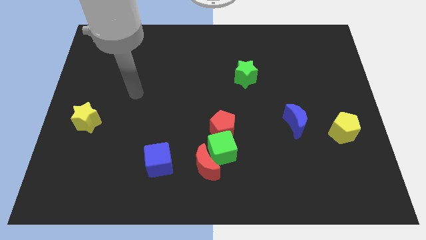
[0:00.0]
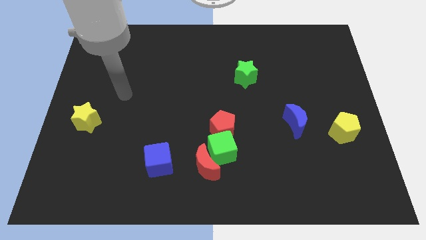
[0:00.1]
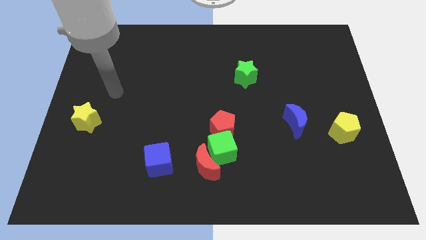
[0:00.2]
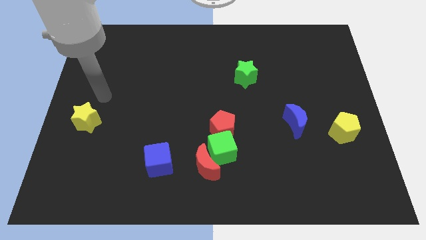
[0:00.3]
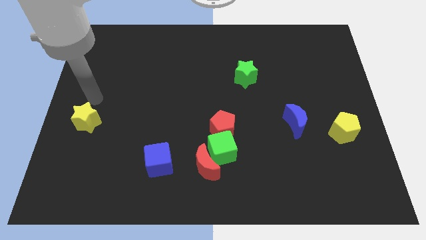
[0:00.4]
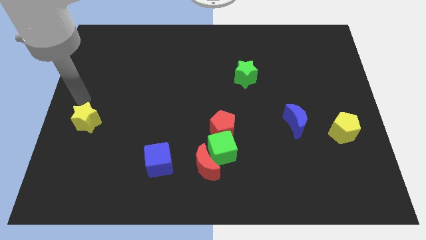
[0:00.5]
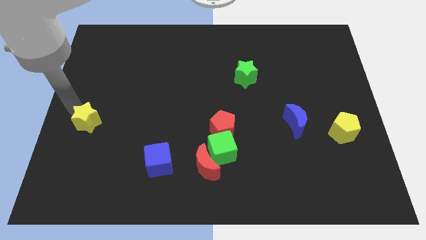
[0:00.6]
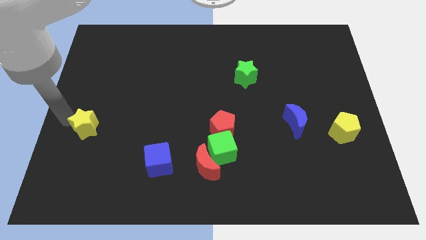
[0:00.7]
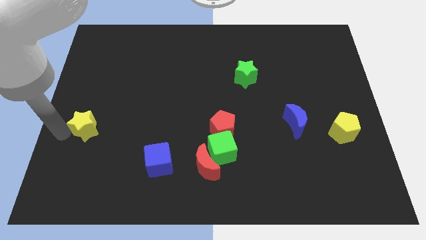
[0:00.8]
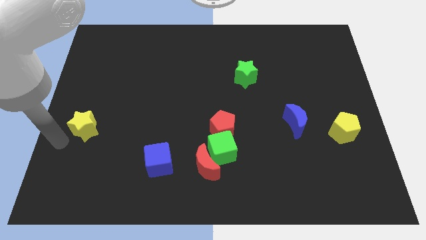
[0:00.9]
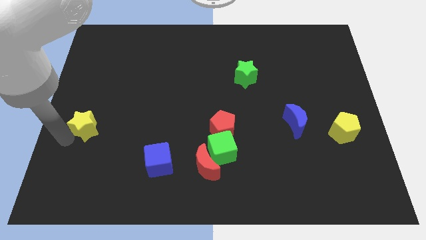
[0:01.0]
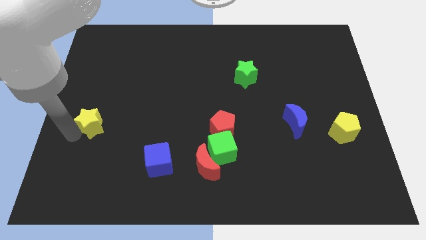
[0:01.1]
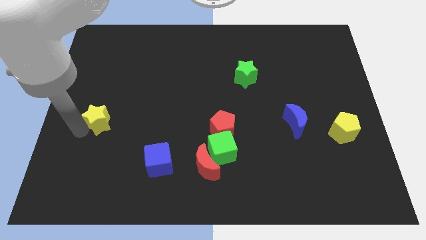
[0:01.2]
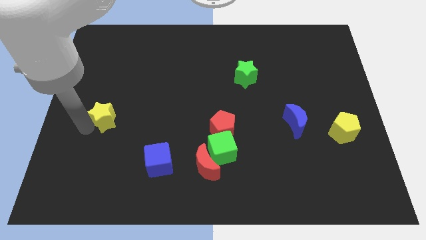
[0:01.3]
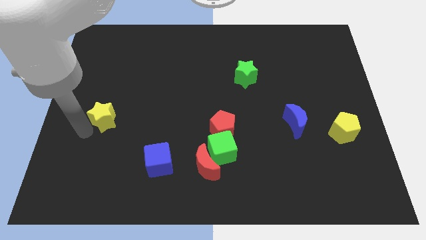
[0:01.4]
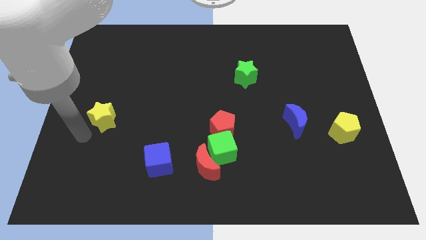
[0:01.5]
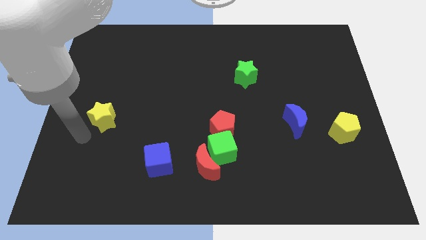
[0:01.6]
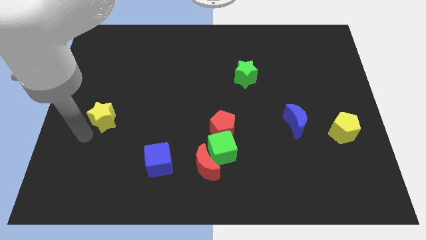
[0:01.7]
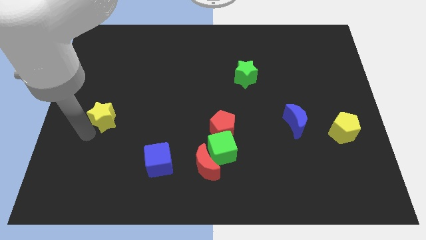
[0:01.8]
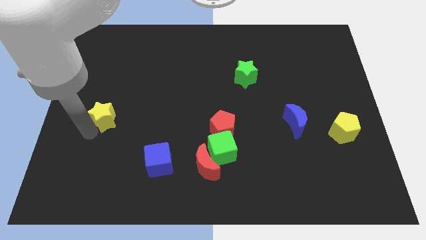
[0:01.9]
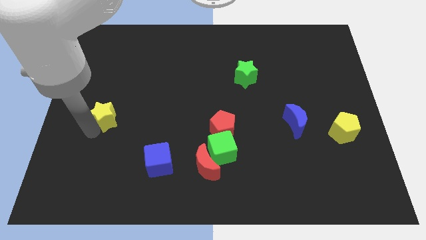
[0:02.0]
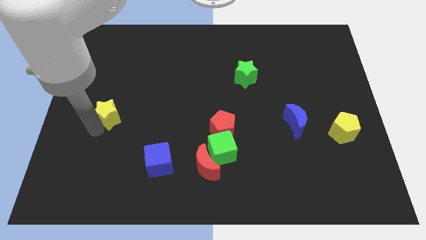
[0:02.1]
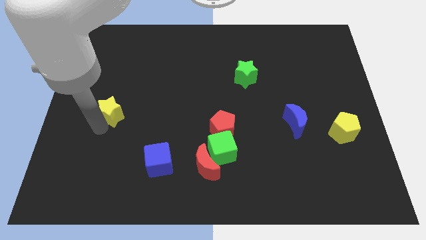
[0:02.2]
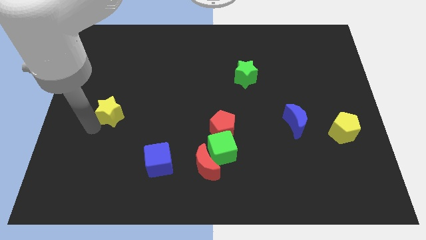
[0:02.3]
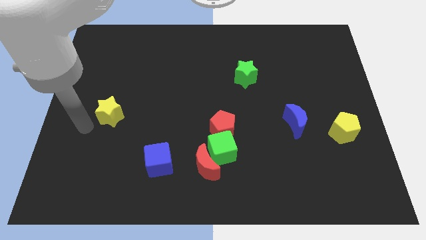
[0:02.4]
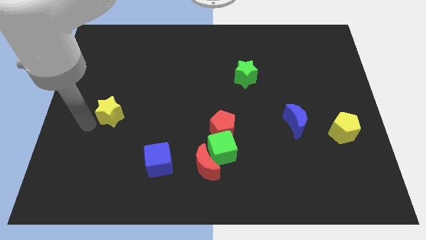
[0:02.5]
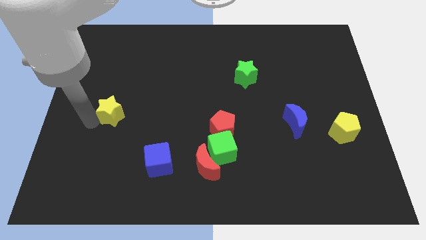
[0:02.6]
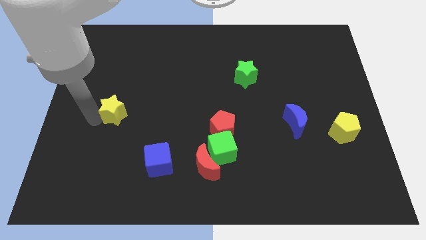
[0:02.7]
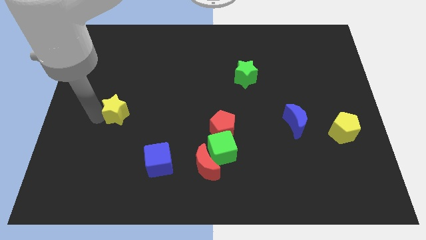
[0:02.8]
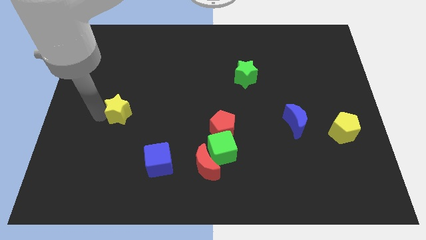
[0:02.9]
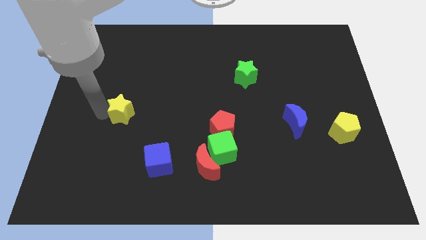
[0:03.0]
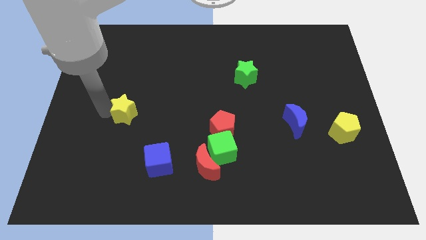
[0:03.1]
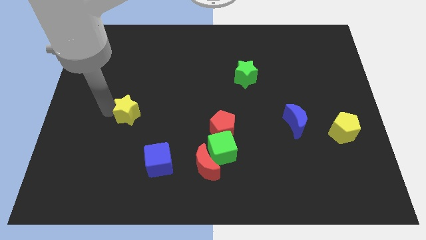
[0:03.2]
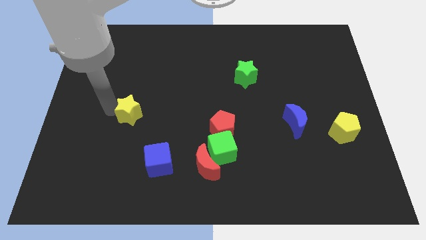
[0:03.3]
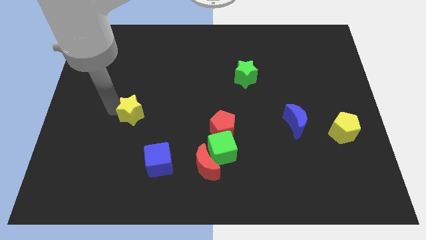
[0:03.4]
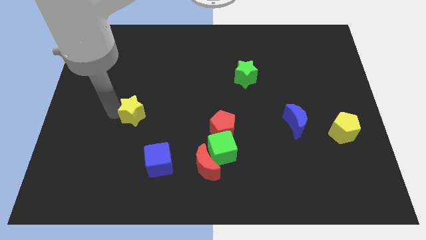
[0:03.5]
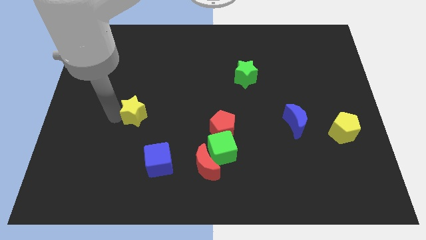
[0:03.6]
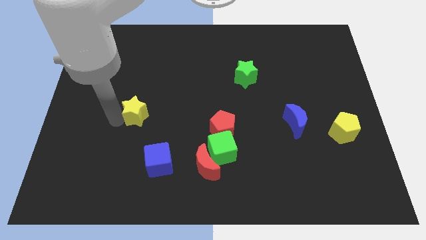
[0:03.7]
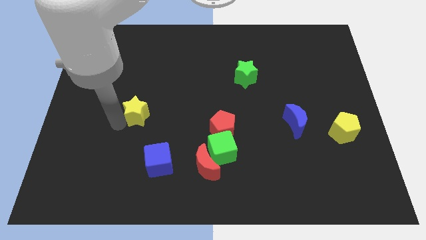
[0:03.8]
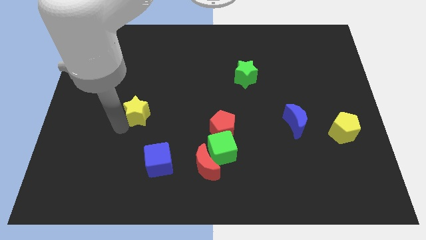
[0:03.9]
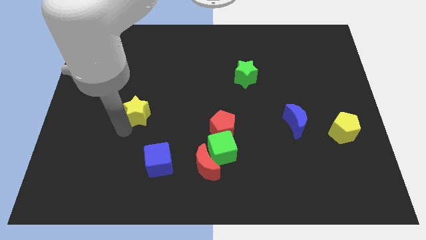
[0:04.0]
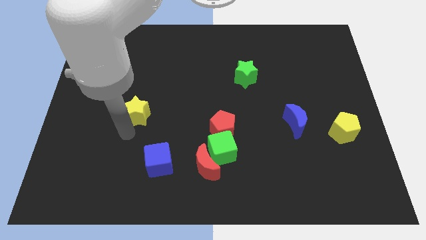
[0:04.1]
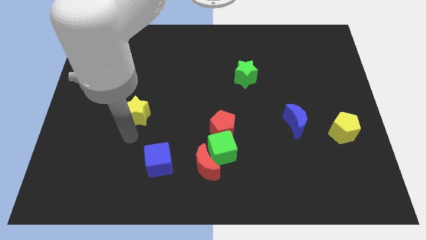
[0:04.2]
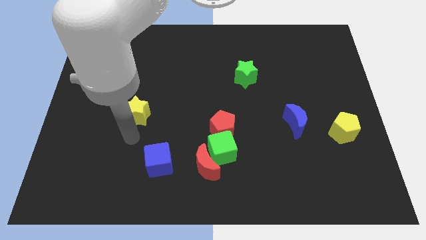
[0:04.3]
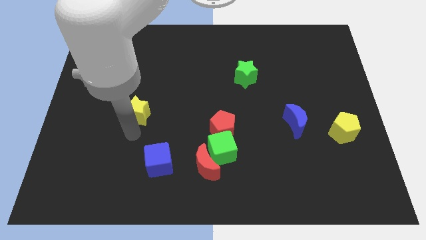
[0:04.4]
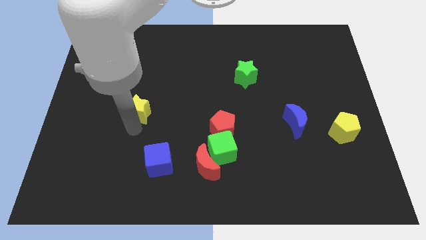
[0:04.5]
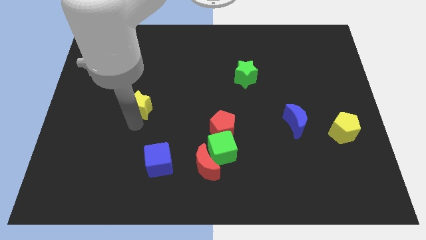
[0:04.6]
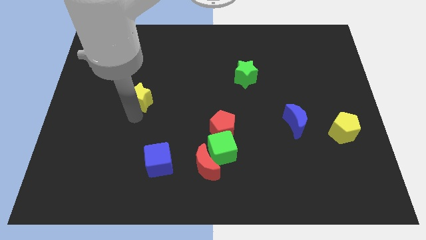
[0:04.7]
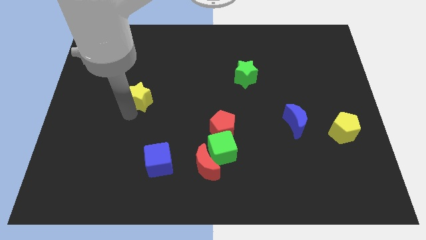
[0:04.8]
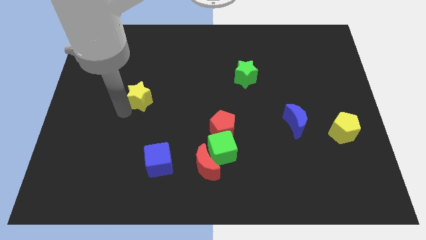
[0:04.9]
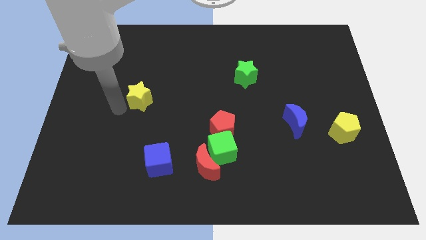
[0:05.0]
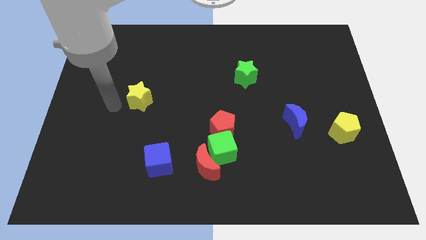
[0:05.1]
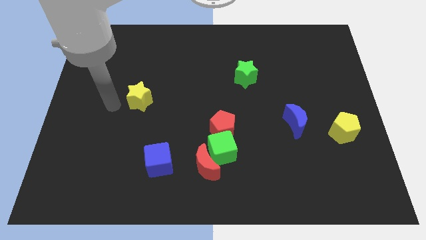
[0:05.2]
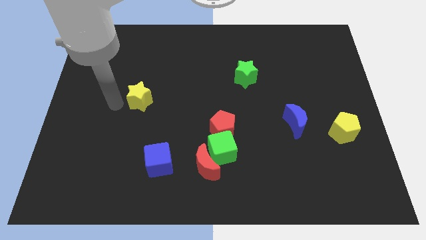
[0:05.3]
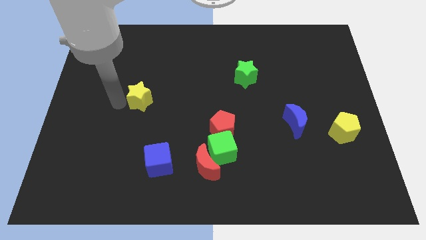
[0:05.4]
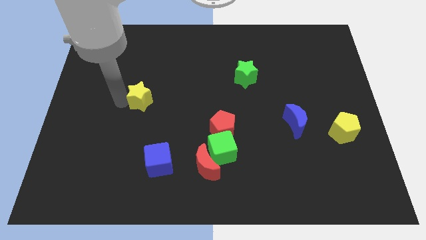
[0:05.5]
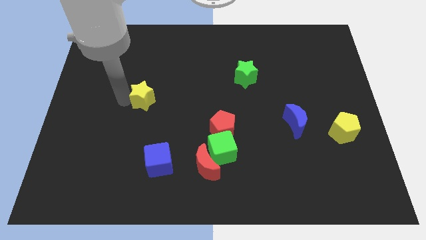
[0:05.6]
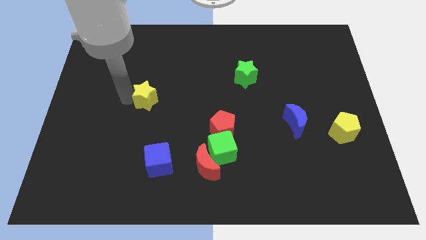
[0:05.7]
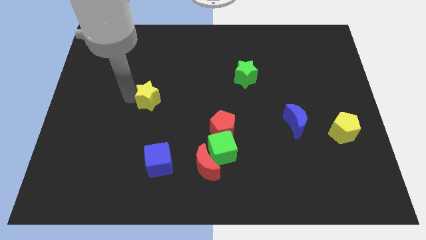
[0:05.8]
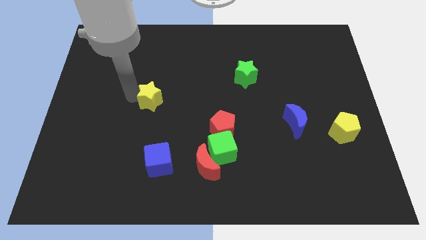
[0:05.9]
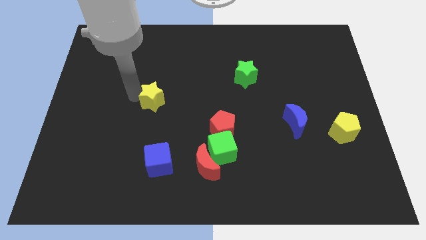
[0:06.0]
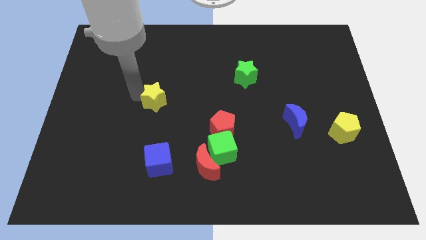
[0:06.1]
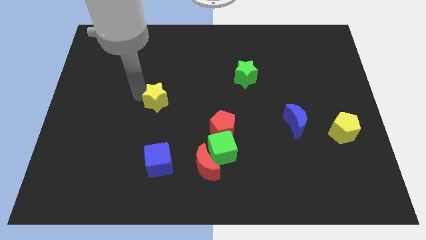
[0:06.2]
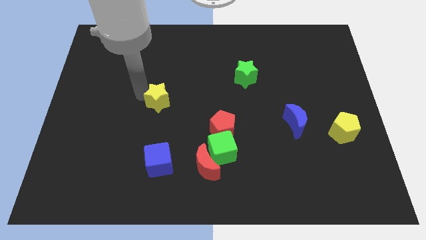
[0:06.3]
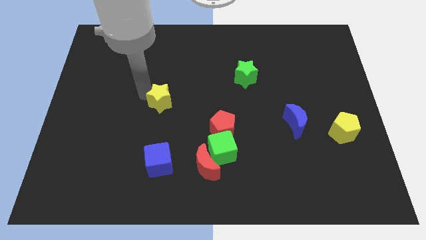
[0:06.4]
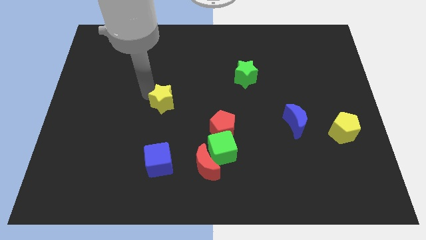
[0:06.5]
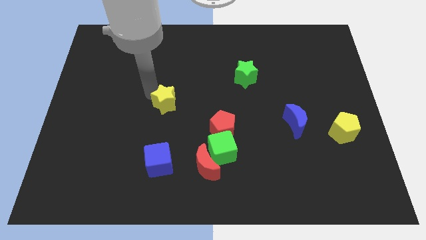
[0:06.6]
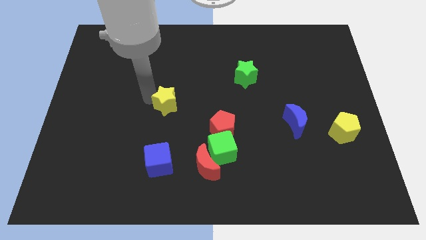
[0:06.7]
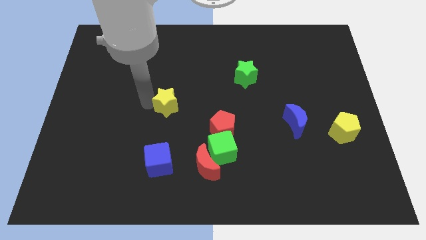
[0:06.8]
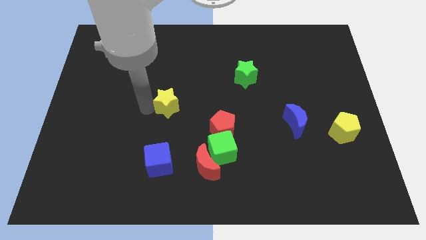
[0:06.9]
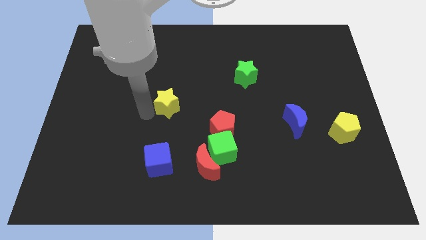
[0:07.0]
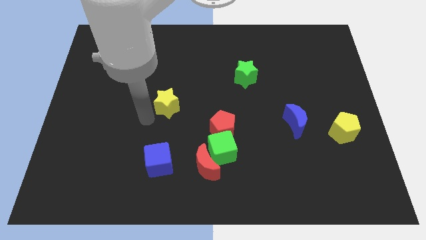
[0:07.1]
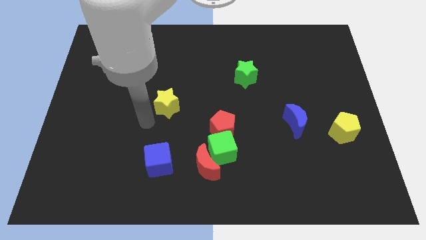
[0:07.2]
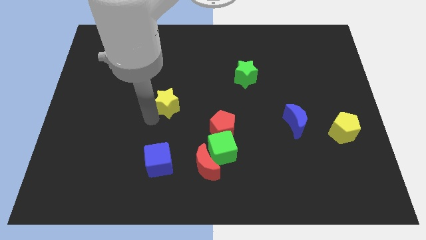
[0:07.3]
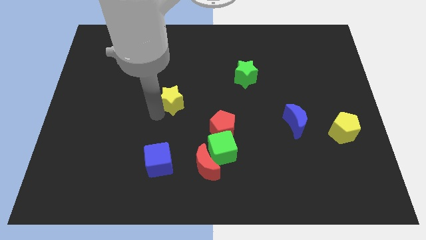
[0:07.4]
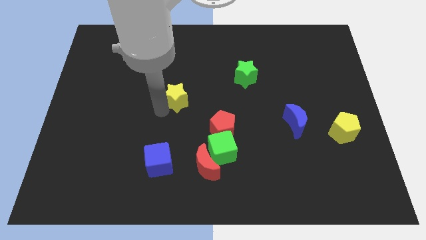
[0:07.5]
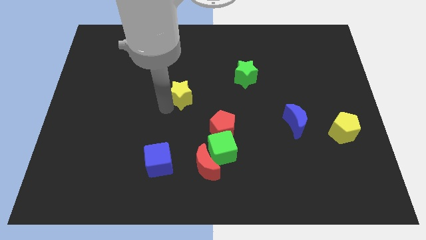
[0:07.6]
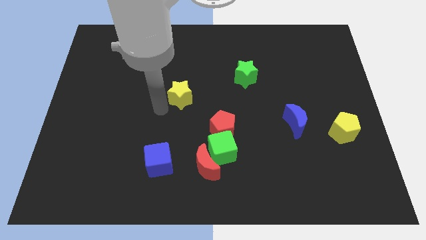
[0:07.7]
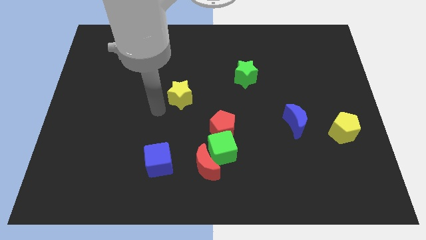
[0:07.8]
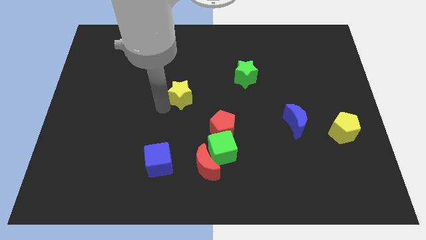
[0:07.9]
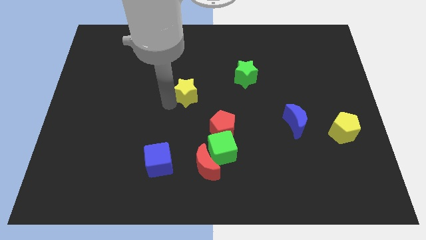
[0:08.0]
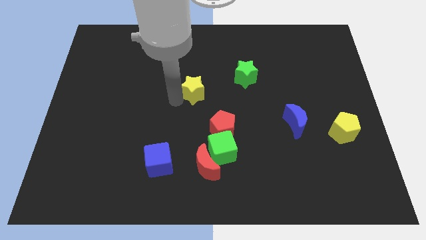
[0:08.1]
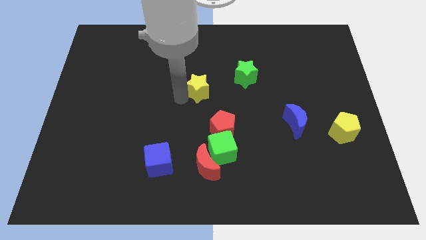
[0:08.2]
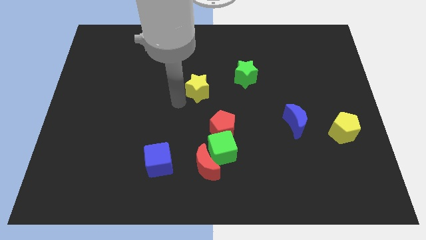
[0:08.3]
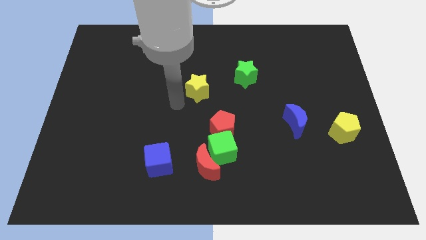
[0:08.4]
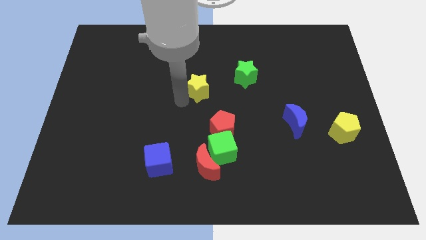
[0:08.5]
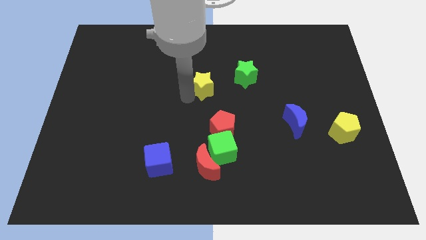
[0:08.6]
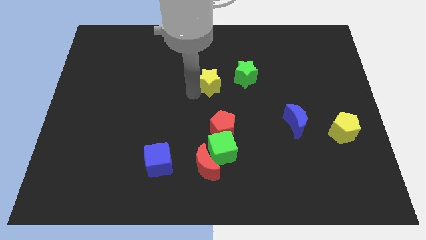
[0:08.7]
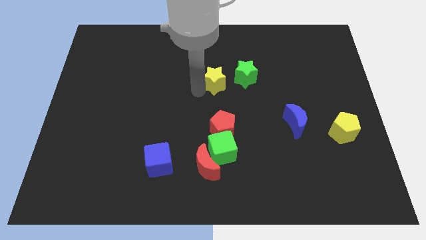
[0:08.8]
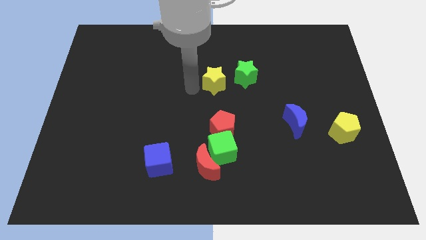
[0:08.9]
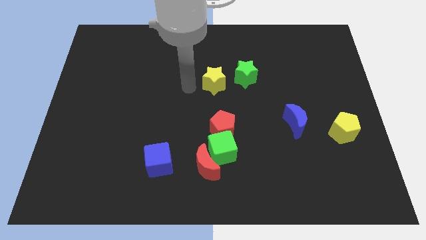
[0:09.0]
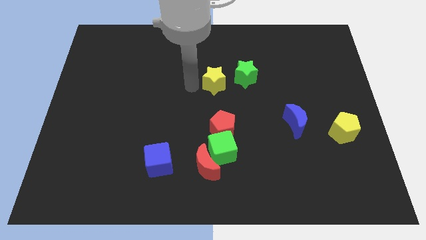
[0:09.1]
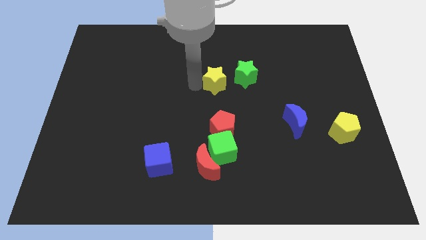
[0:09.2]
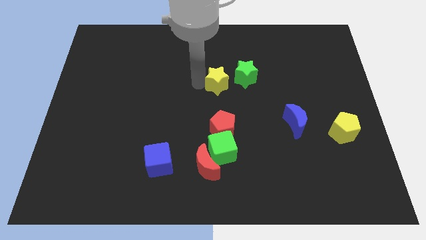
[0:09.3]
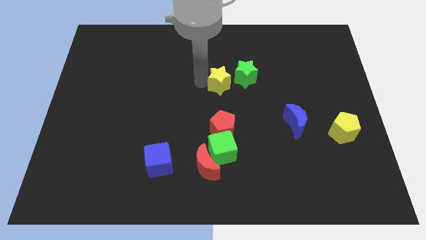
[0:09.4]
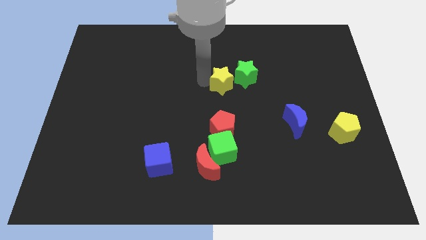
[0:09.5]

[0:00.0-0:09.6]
put the yellow star towards the green star
